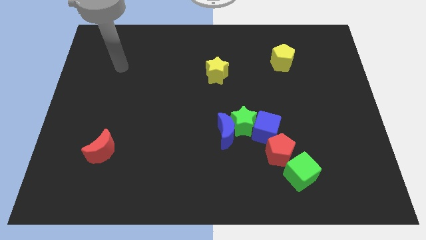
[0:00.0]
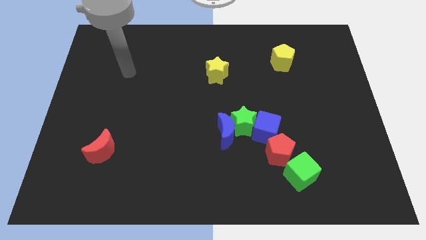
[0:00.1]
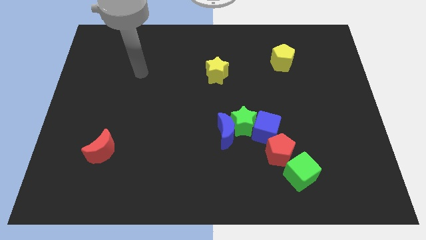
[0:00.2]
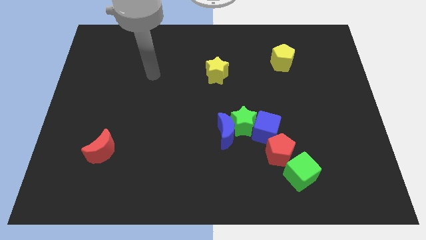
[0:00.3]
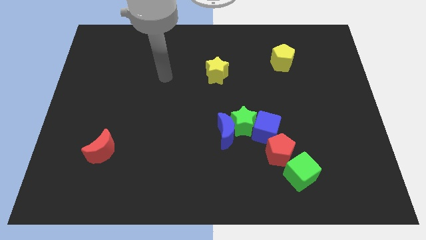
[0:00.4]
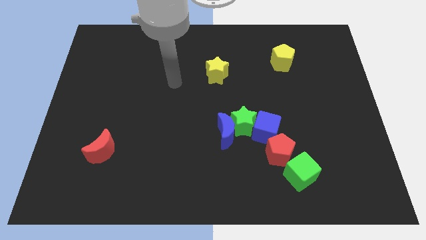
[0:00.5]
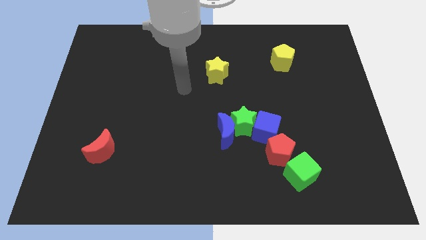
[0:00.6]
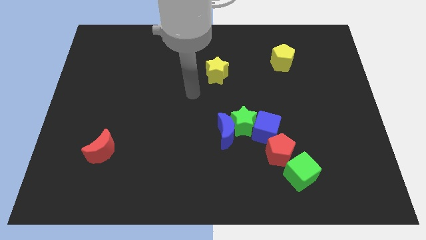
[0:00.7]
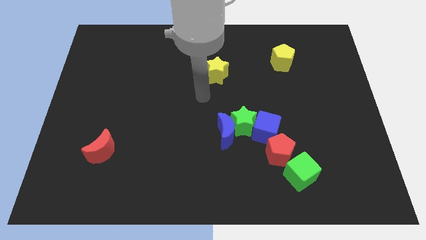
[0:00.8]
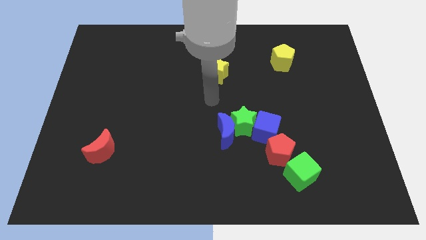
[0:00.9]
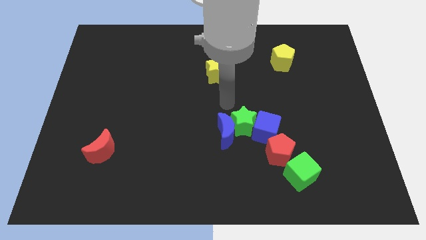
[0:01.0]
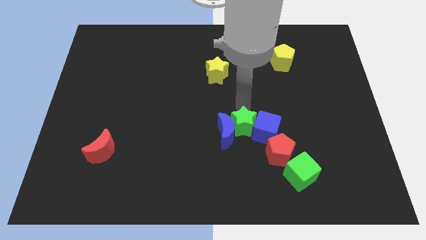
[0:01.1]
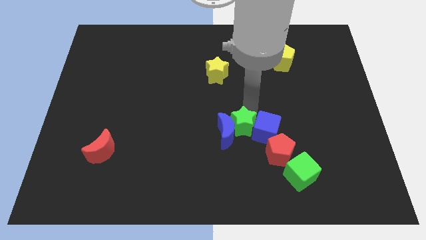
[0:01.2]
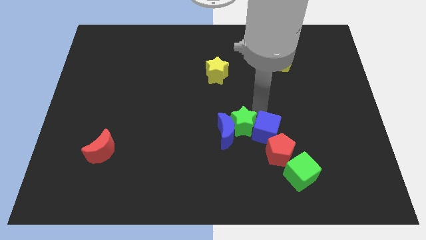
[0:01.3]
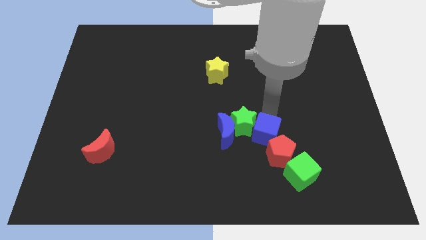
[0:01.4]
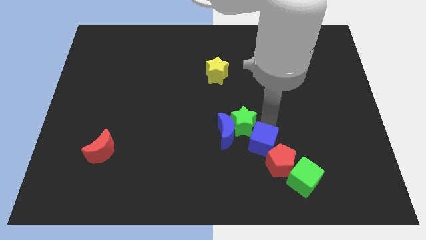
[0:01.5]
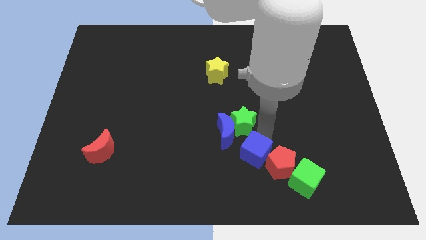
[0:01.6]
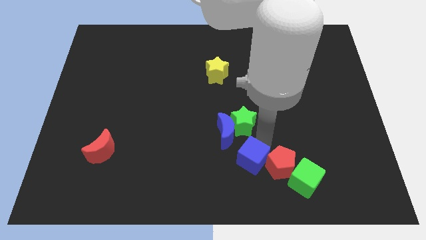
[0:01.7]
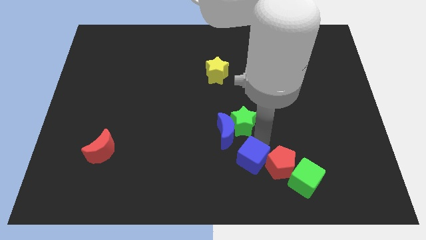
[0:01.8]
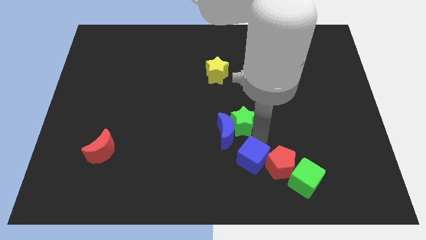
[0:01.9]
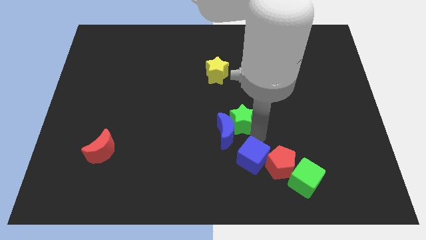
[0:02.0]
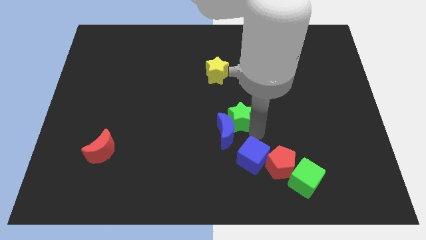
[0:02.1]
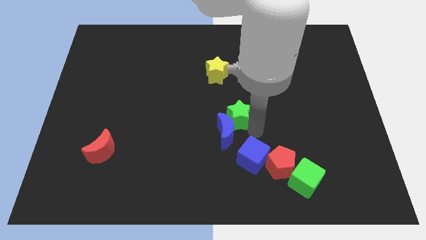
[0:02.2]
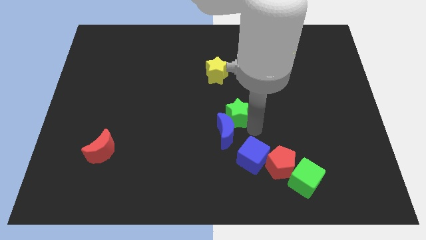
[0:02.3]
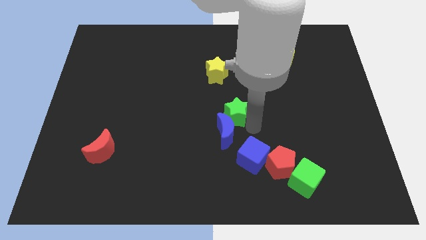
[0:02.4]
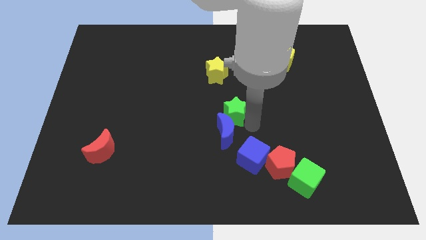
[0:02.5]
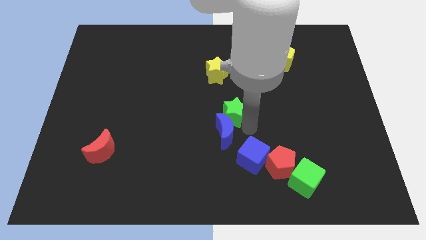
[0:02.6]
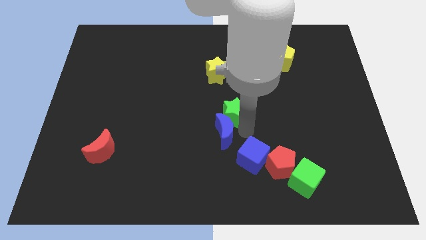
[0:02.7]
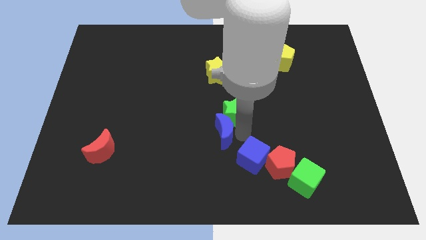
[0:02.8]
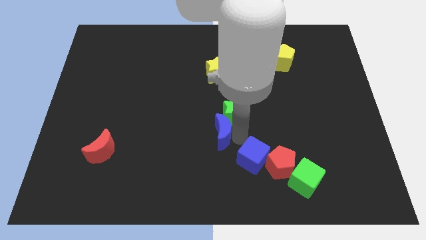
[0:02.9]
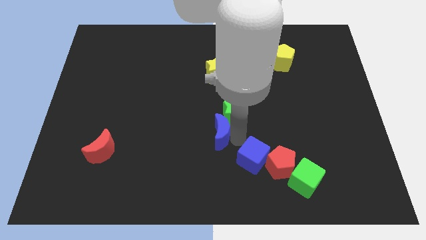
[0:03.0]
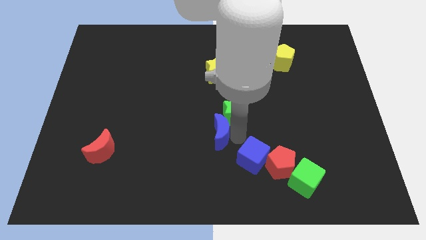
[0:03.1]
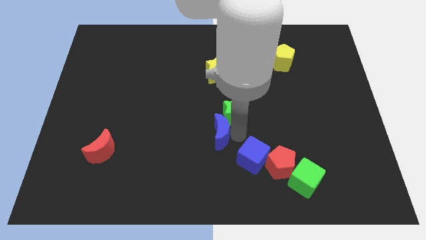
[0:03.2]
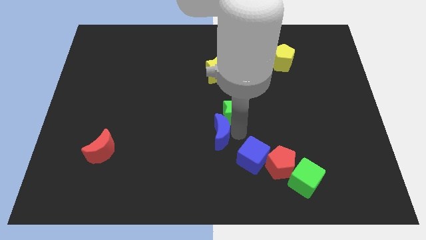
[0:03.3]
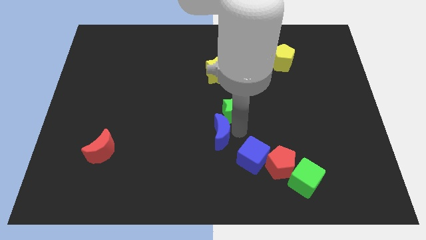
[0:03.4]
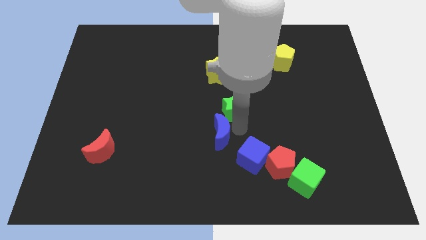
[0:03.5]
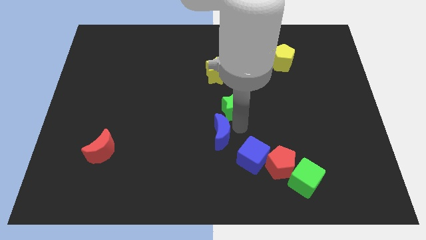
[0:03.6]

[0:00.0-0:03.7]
move the green star away from the blue moon and blue cube

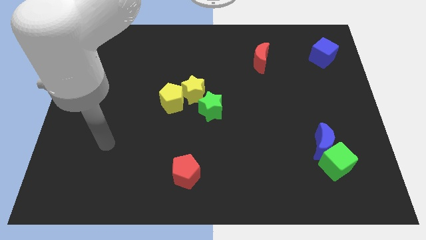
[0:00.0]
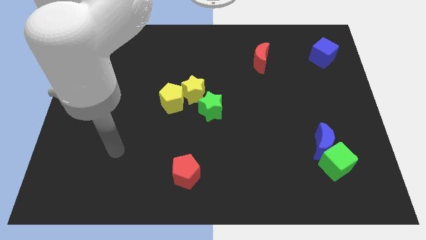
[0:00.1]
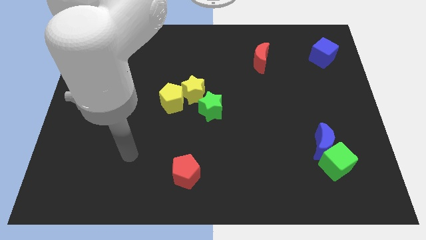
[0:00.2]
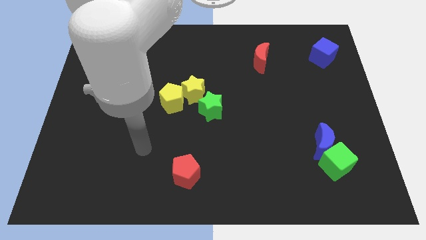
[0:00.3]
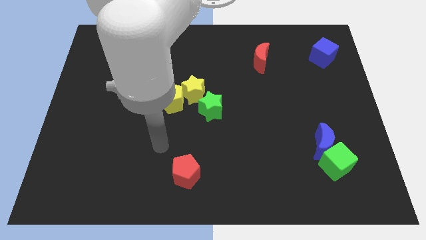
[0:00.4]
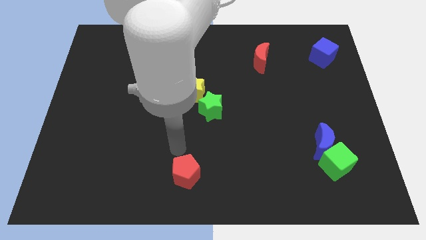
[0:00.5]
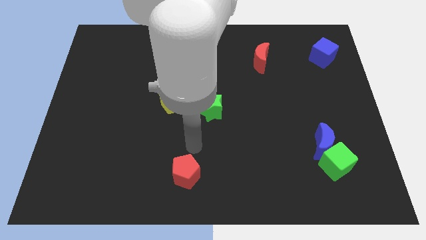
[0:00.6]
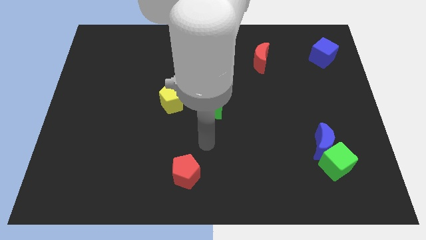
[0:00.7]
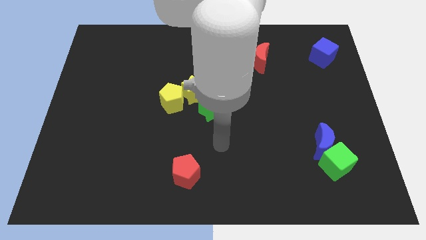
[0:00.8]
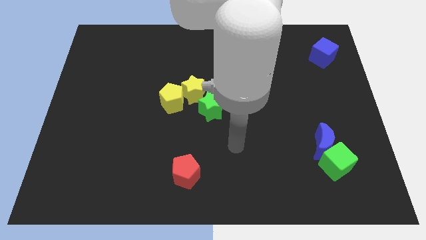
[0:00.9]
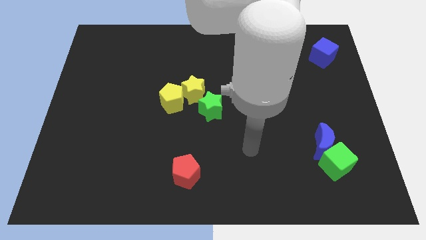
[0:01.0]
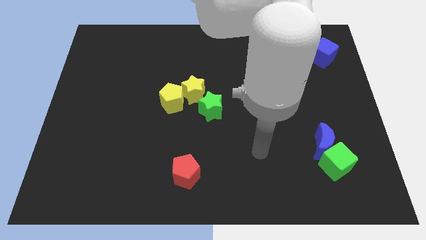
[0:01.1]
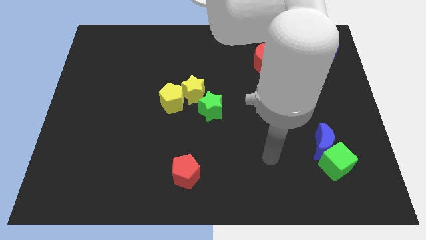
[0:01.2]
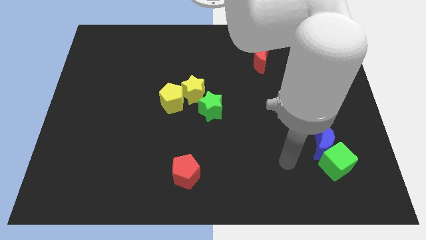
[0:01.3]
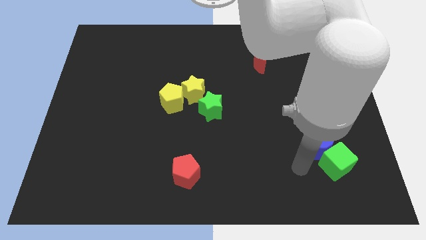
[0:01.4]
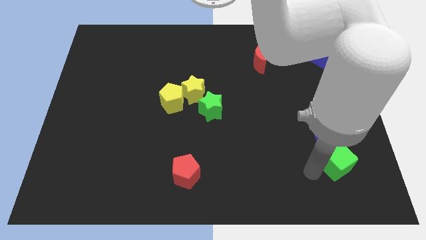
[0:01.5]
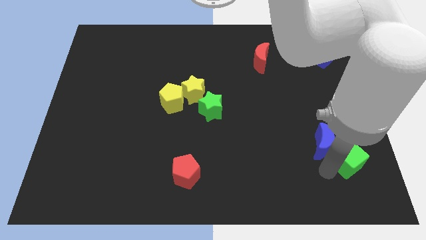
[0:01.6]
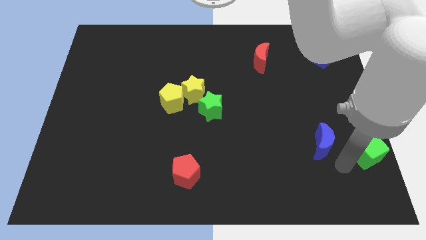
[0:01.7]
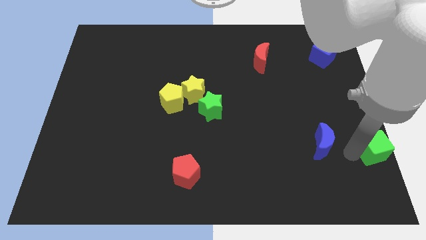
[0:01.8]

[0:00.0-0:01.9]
move the blue moon away from the green cube

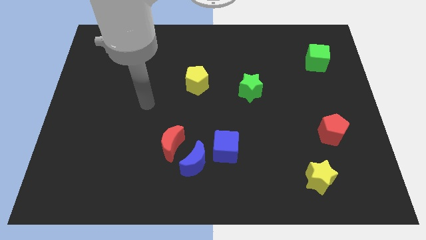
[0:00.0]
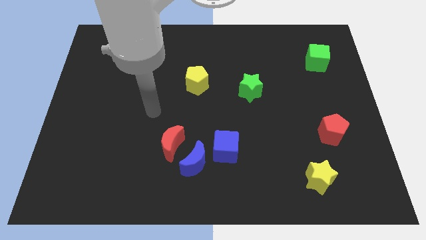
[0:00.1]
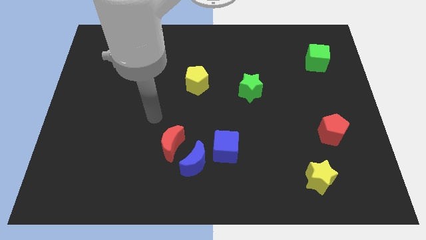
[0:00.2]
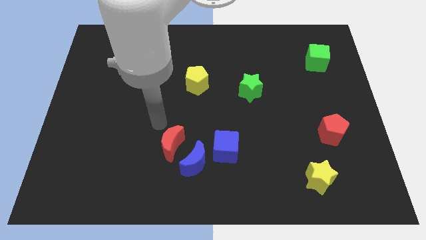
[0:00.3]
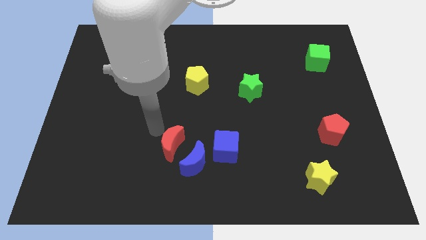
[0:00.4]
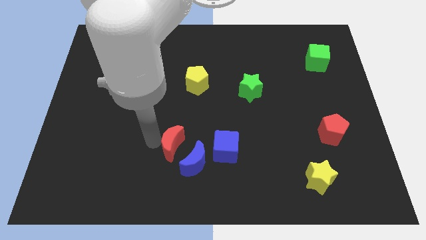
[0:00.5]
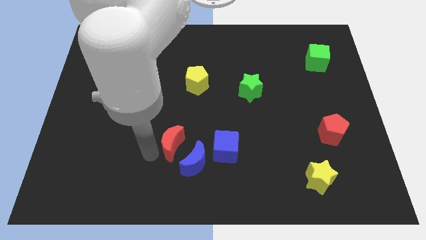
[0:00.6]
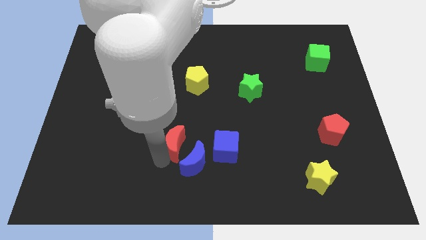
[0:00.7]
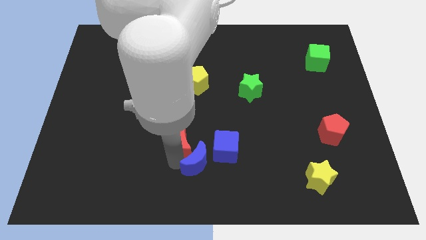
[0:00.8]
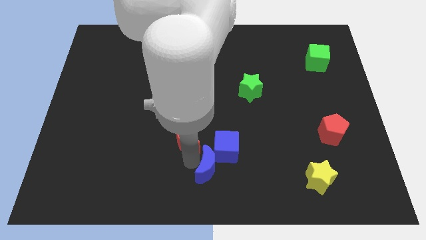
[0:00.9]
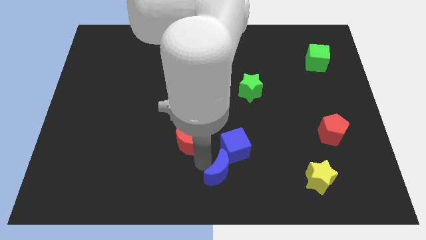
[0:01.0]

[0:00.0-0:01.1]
pull the red moon apart from the blue moon

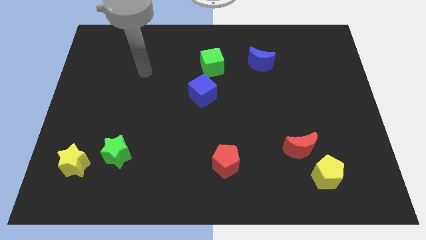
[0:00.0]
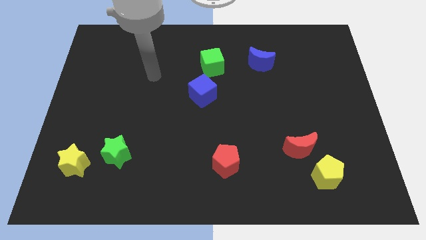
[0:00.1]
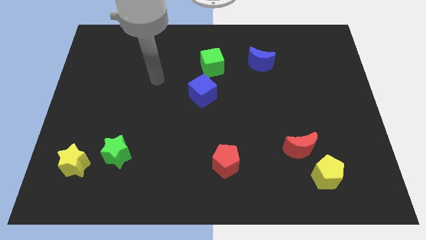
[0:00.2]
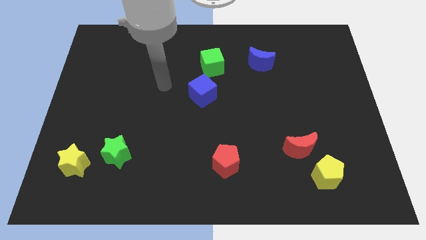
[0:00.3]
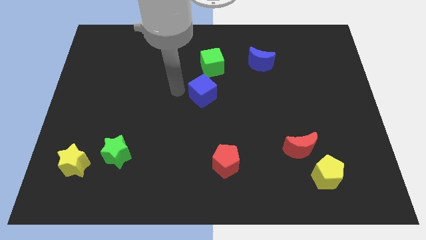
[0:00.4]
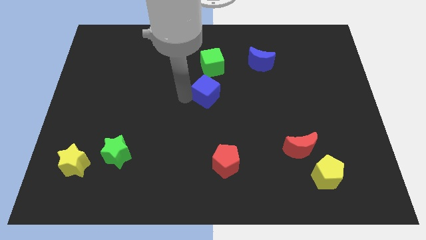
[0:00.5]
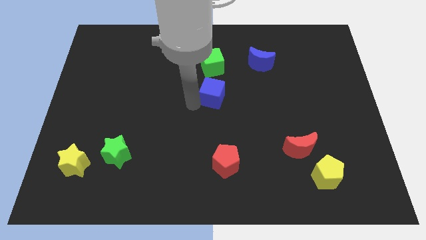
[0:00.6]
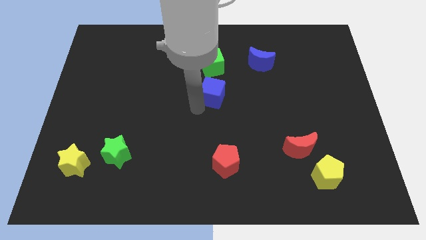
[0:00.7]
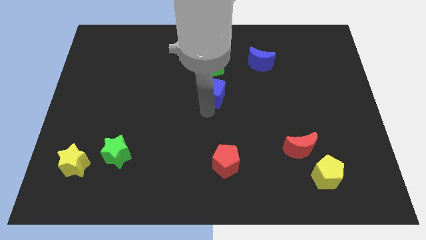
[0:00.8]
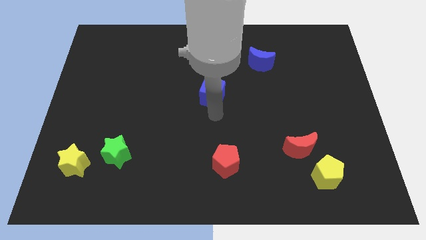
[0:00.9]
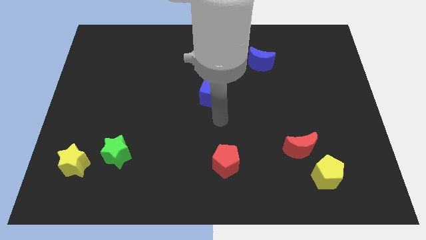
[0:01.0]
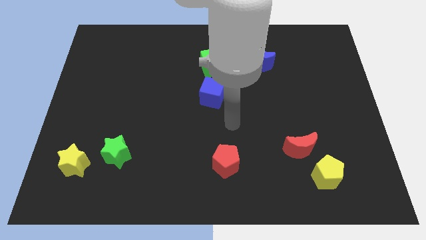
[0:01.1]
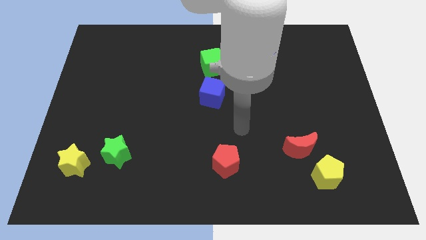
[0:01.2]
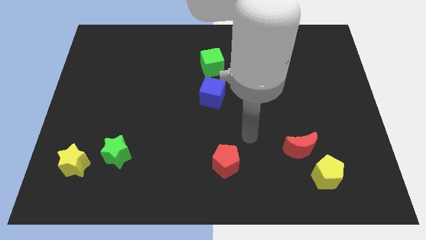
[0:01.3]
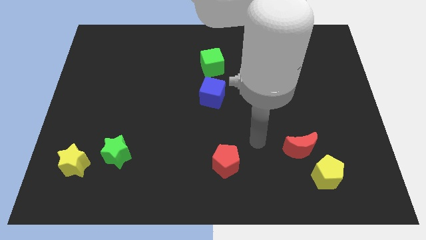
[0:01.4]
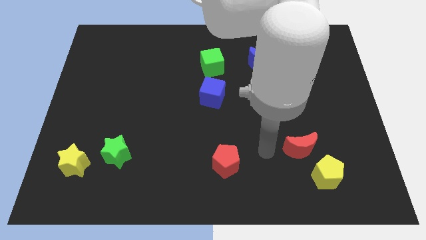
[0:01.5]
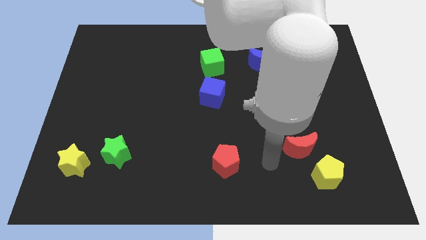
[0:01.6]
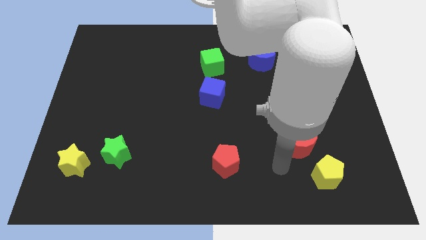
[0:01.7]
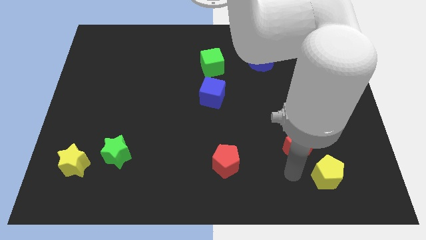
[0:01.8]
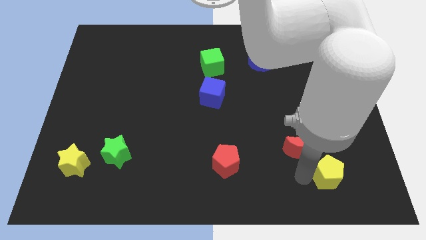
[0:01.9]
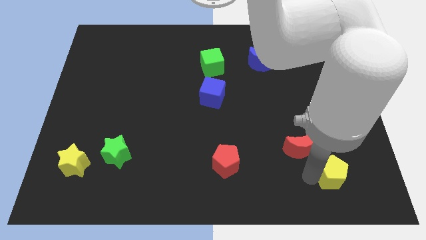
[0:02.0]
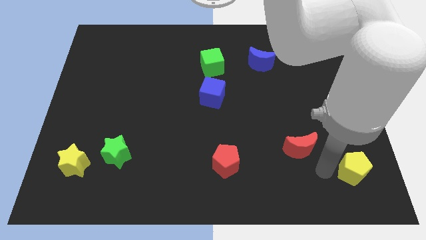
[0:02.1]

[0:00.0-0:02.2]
move the red moon away from the yellow pentagon

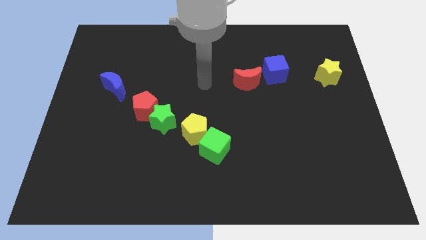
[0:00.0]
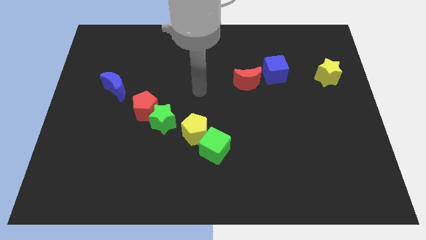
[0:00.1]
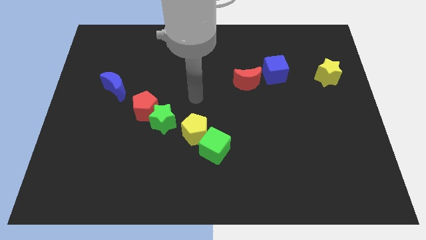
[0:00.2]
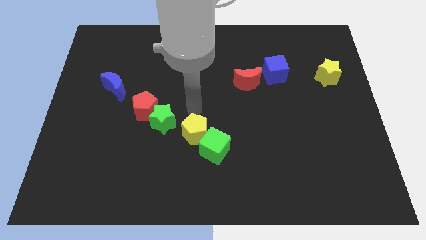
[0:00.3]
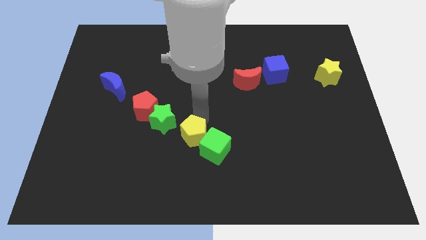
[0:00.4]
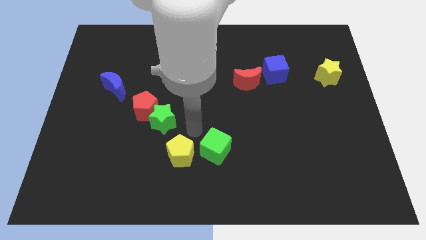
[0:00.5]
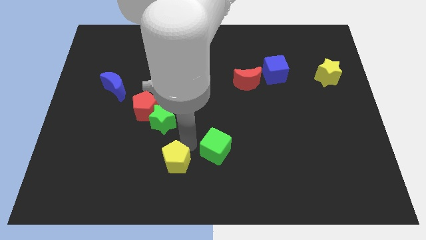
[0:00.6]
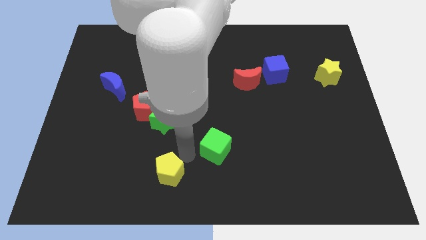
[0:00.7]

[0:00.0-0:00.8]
pull the green cube apart from the yellow pentagon
